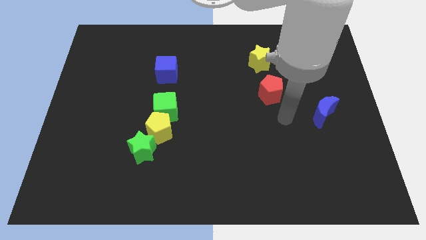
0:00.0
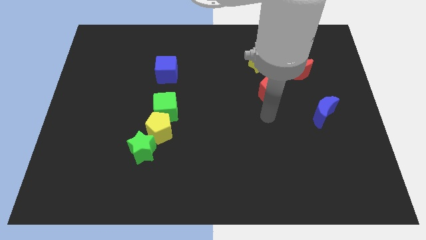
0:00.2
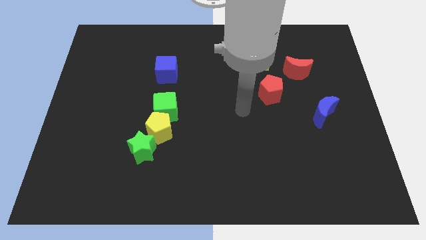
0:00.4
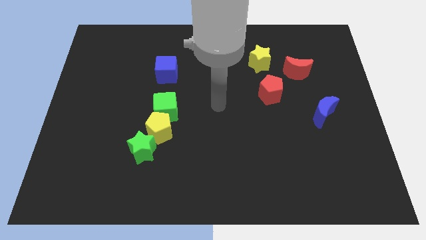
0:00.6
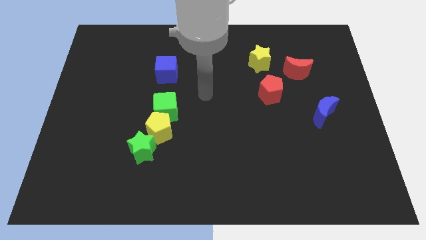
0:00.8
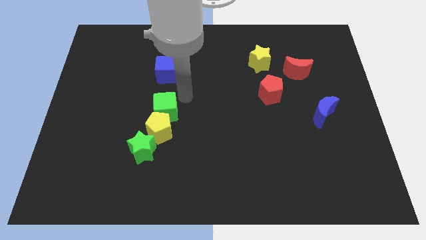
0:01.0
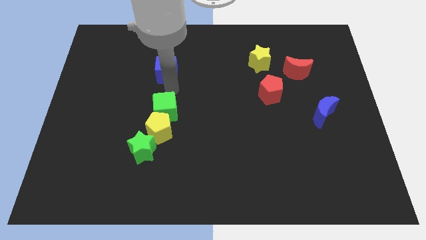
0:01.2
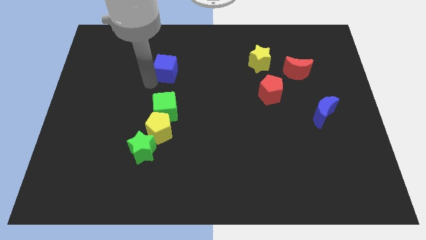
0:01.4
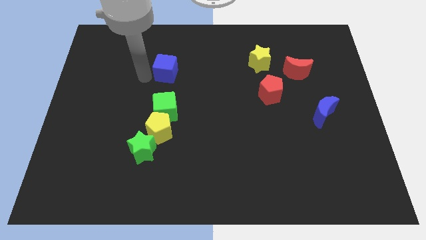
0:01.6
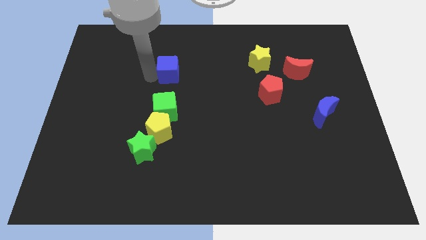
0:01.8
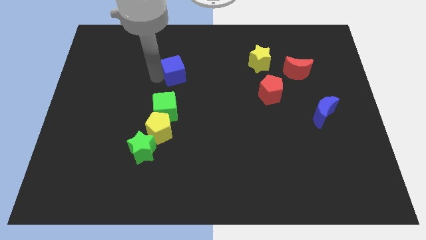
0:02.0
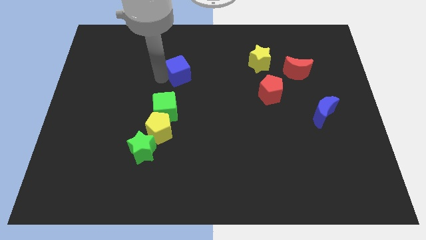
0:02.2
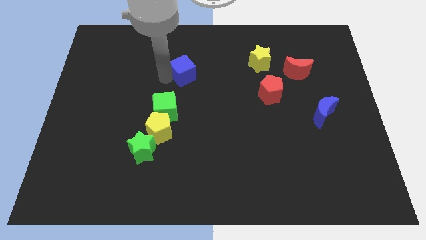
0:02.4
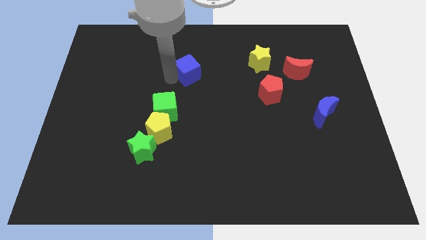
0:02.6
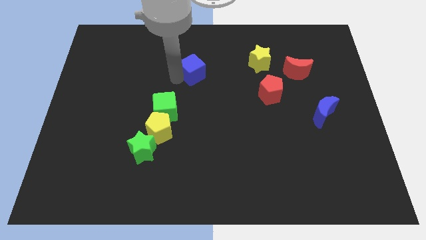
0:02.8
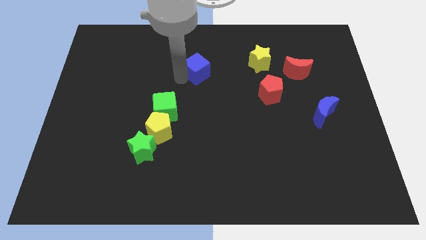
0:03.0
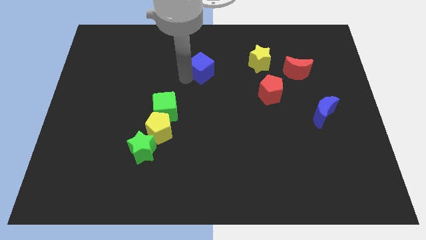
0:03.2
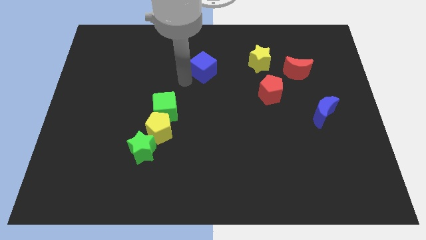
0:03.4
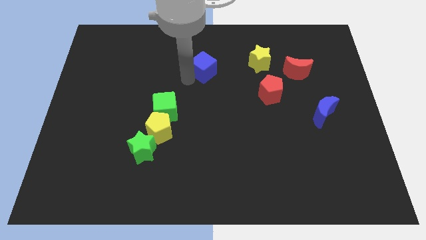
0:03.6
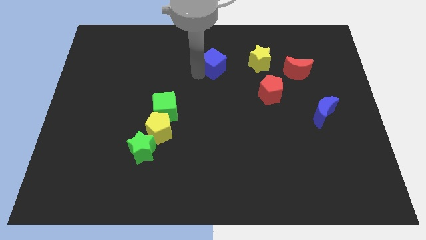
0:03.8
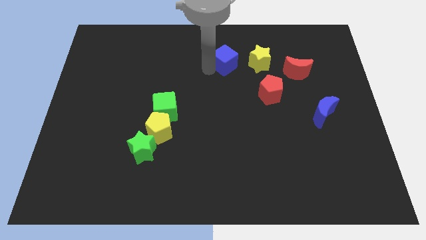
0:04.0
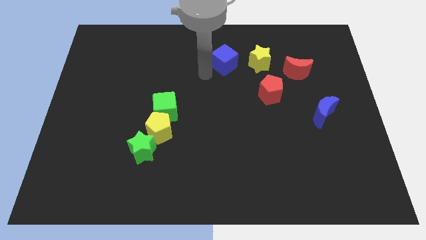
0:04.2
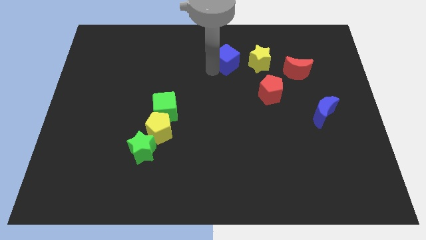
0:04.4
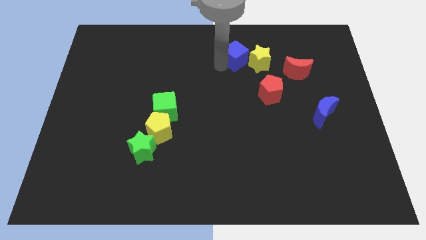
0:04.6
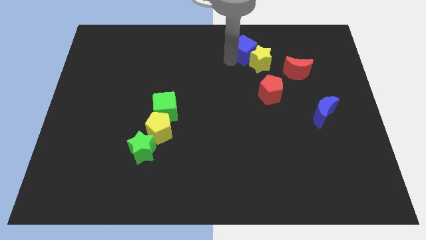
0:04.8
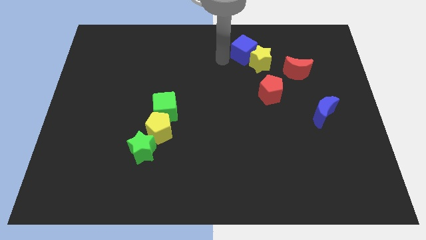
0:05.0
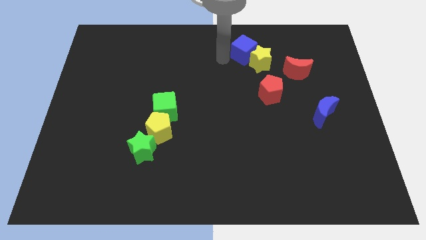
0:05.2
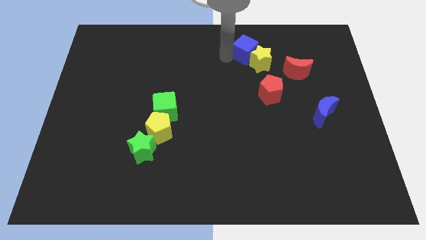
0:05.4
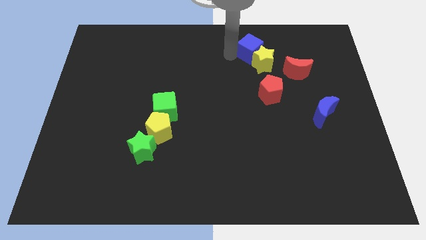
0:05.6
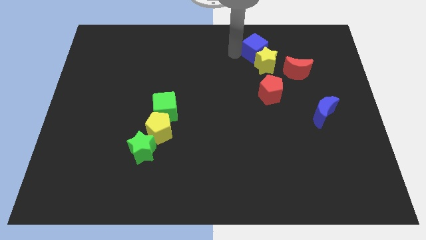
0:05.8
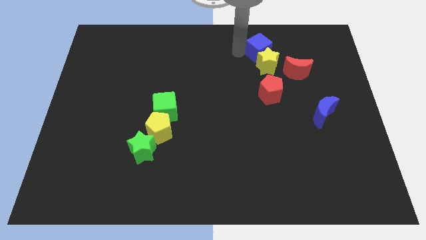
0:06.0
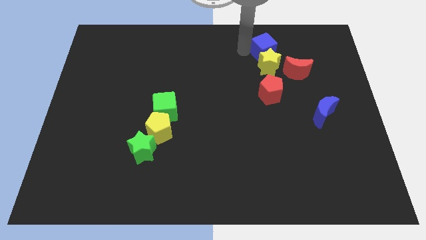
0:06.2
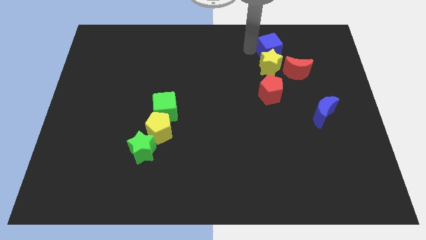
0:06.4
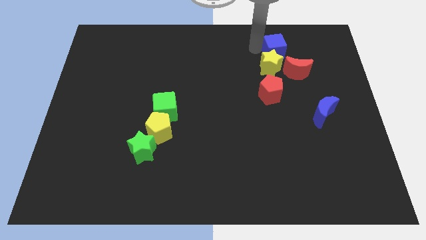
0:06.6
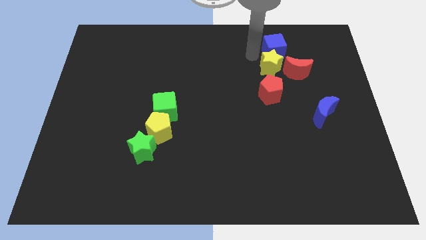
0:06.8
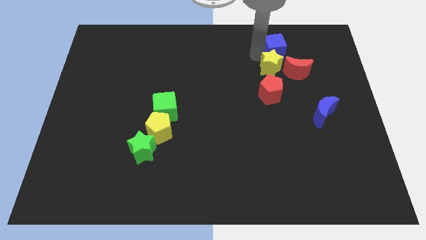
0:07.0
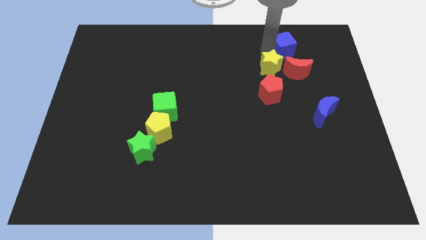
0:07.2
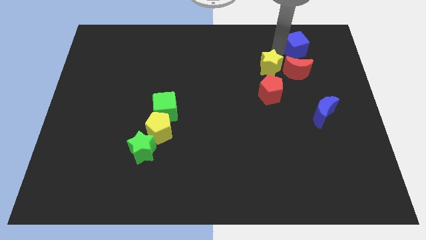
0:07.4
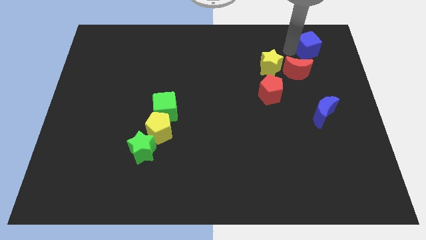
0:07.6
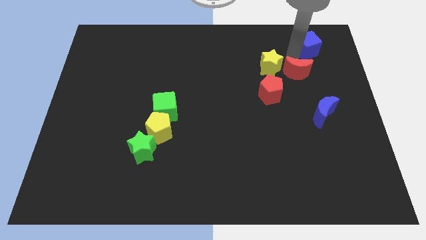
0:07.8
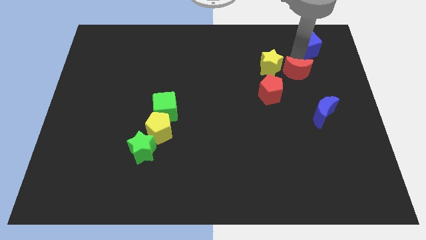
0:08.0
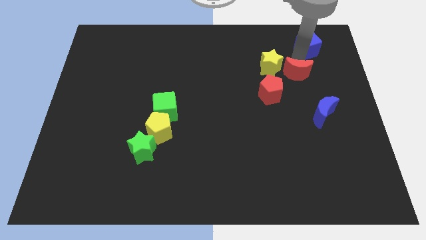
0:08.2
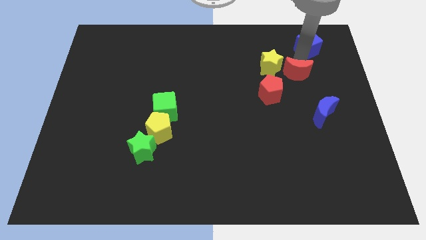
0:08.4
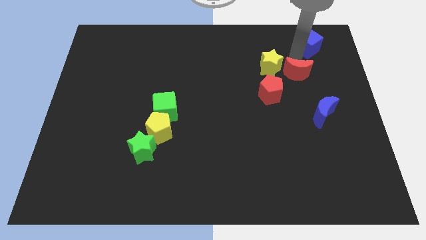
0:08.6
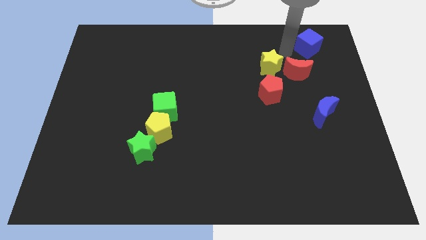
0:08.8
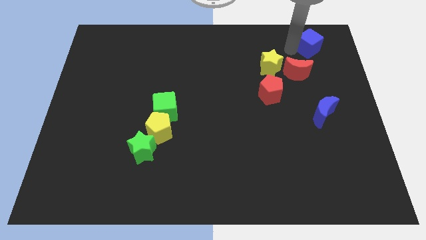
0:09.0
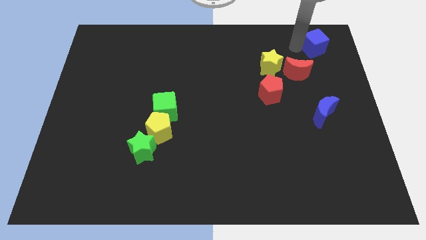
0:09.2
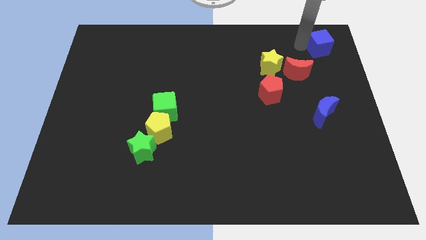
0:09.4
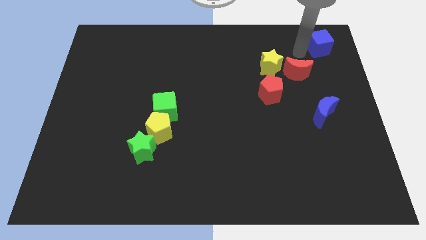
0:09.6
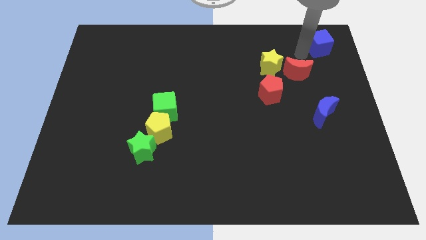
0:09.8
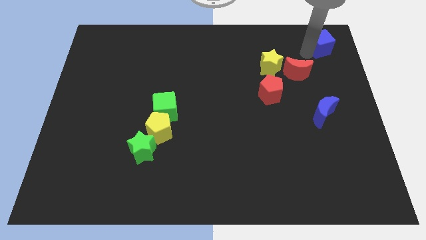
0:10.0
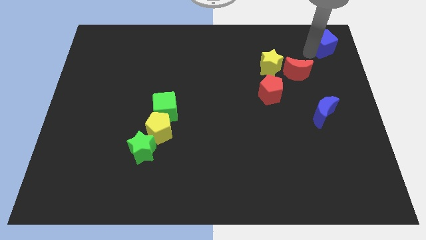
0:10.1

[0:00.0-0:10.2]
push the blue cube to the top right corner
